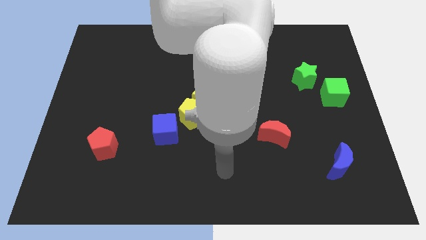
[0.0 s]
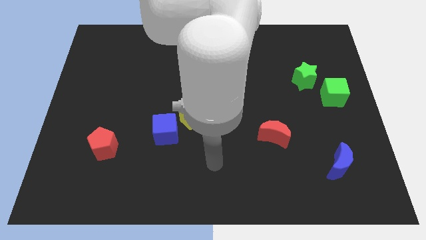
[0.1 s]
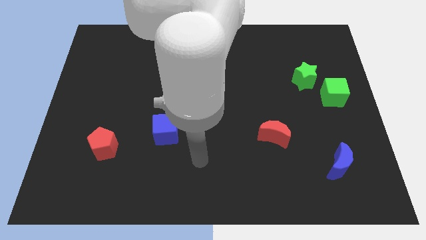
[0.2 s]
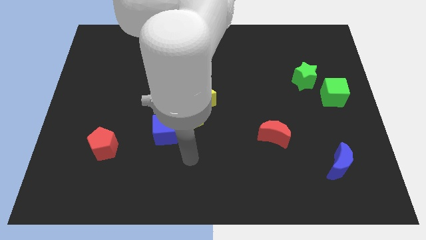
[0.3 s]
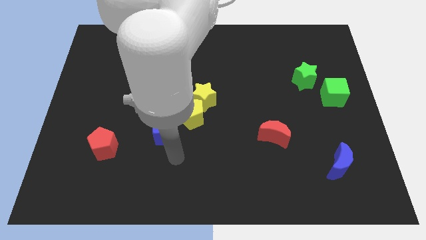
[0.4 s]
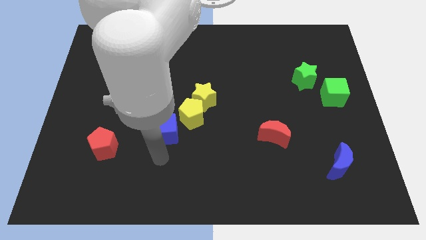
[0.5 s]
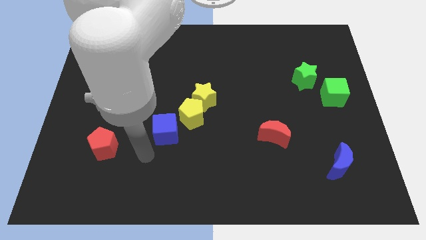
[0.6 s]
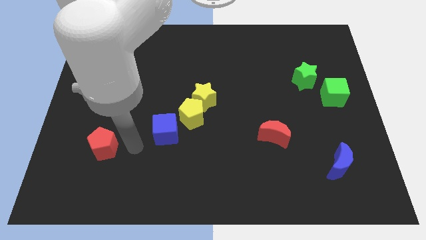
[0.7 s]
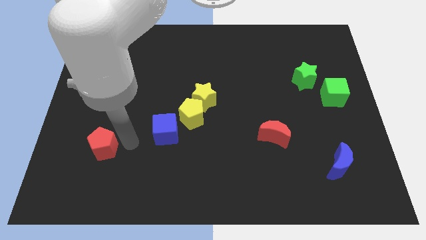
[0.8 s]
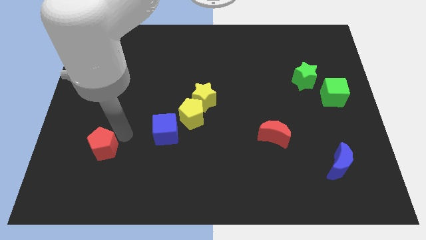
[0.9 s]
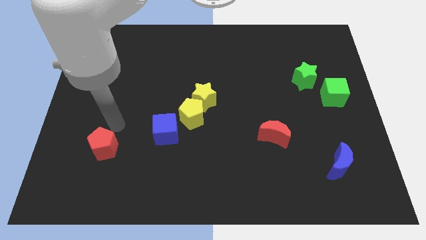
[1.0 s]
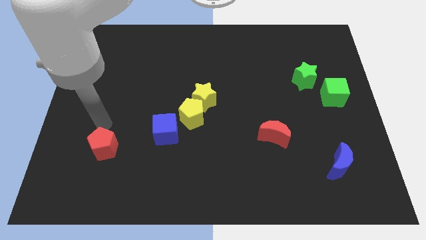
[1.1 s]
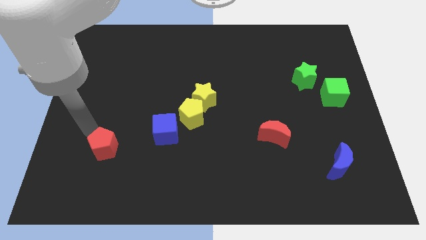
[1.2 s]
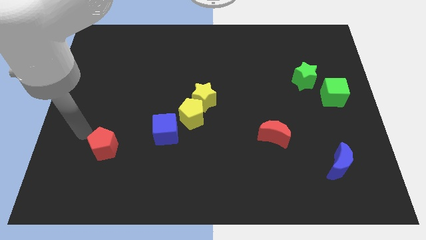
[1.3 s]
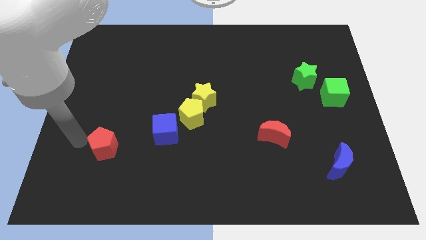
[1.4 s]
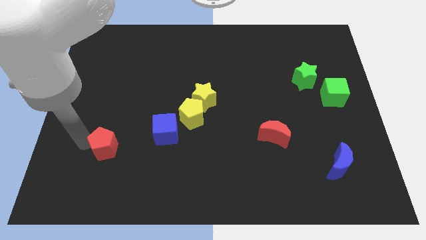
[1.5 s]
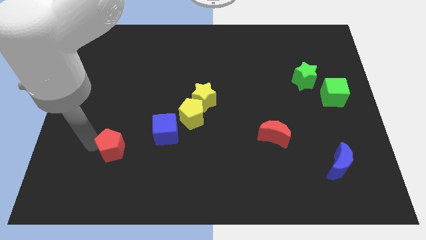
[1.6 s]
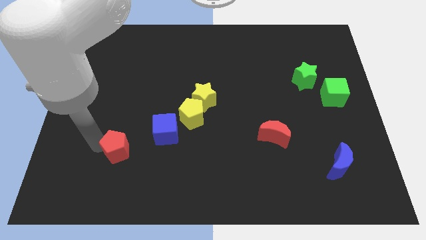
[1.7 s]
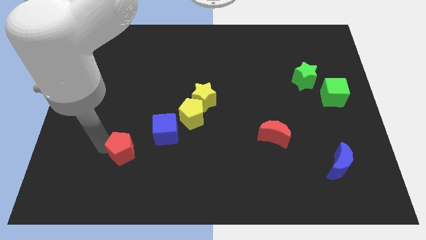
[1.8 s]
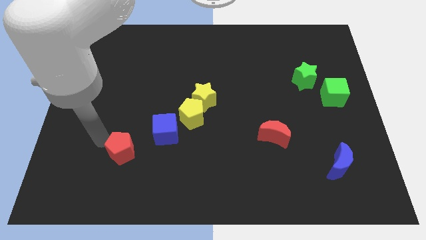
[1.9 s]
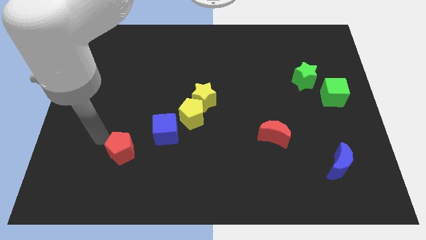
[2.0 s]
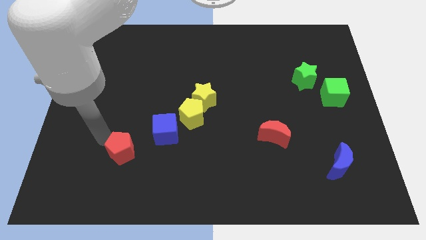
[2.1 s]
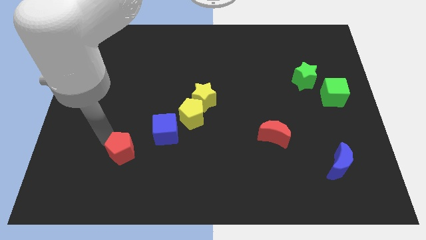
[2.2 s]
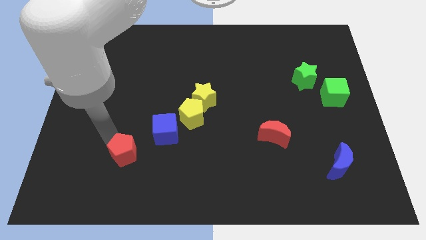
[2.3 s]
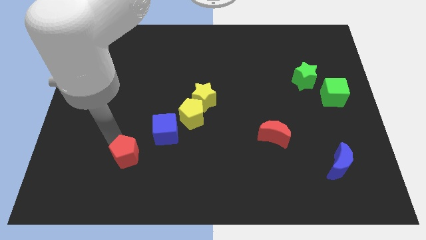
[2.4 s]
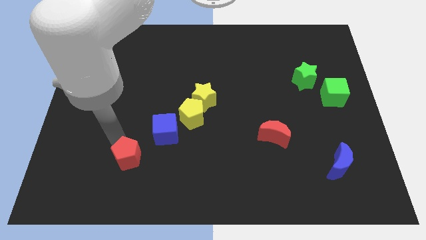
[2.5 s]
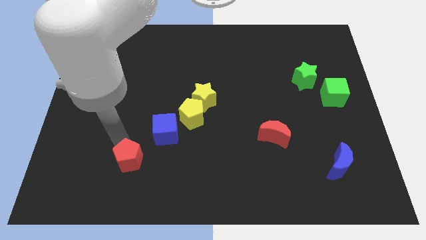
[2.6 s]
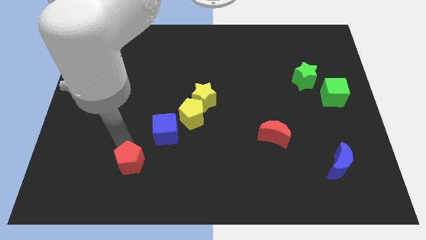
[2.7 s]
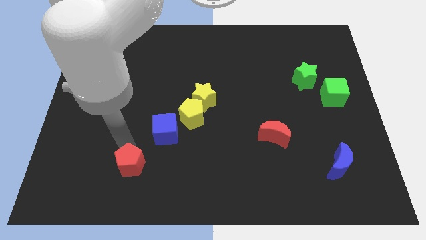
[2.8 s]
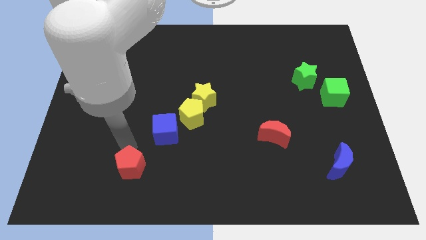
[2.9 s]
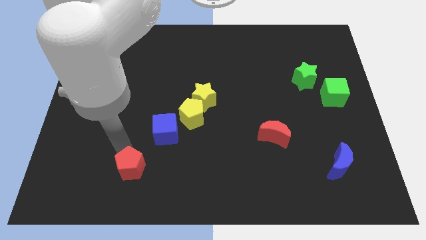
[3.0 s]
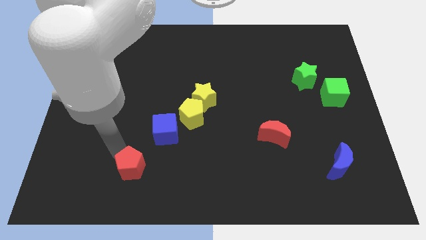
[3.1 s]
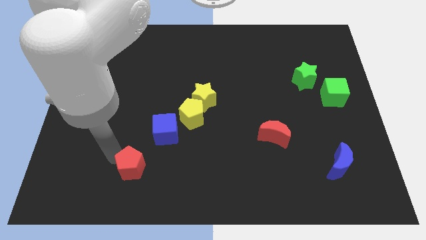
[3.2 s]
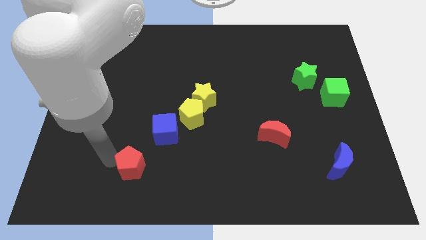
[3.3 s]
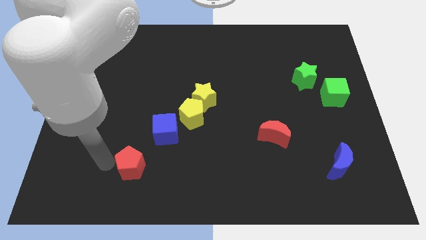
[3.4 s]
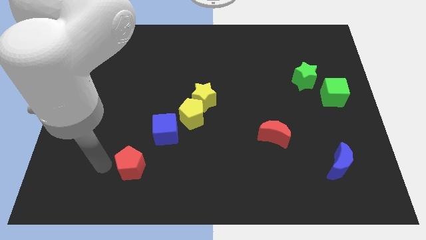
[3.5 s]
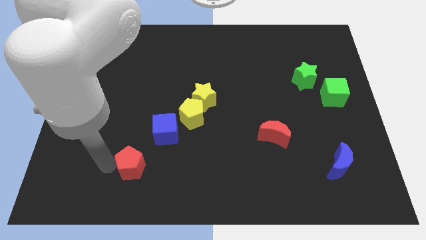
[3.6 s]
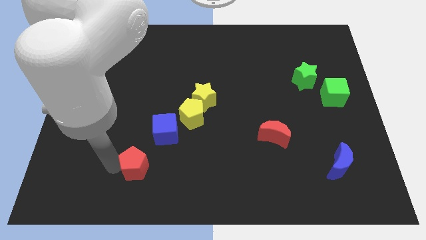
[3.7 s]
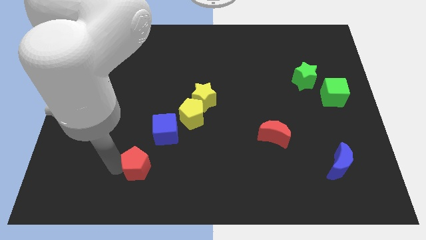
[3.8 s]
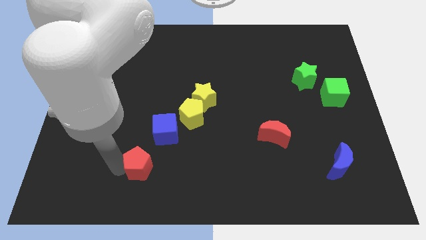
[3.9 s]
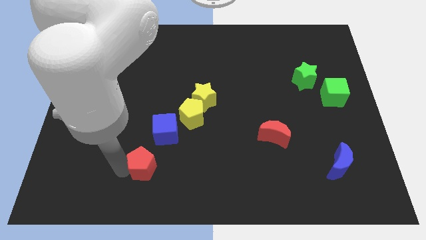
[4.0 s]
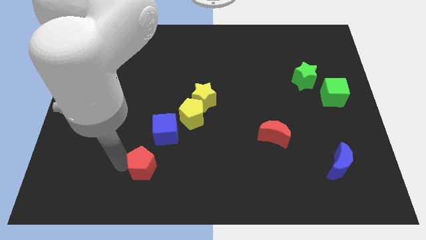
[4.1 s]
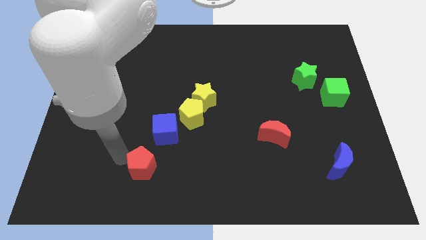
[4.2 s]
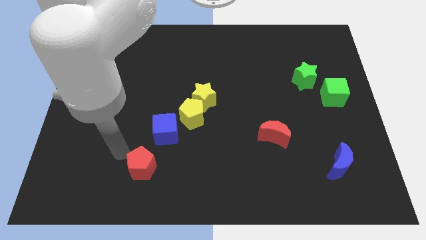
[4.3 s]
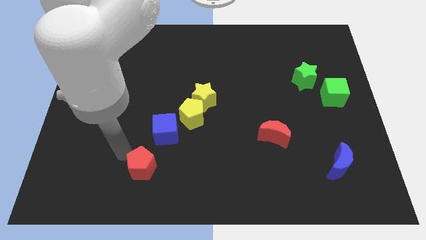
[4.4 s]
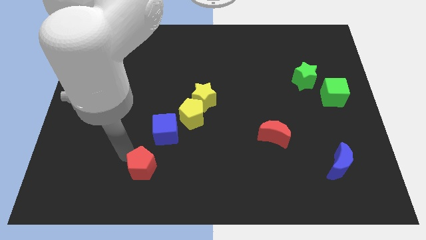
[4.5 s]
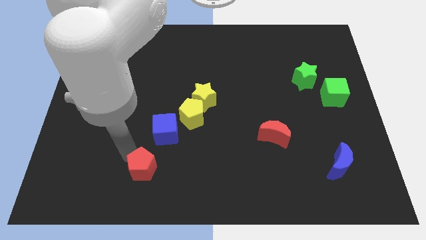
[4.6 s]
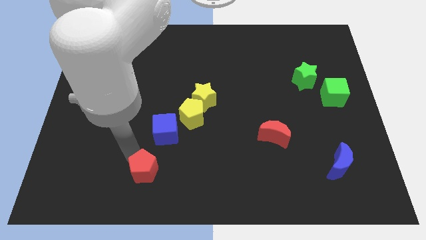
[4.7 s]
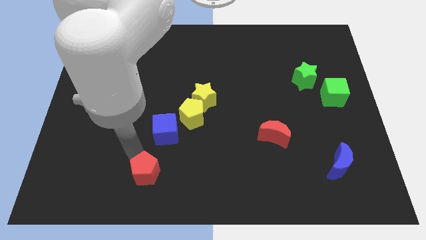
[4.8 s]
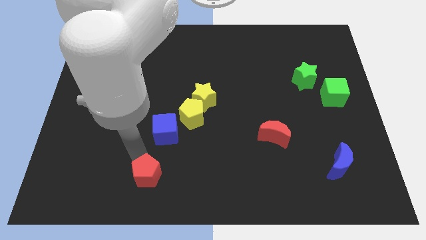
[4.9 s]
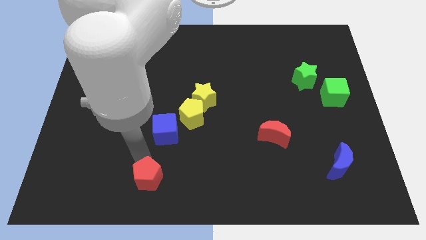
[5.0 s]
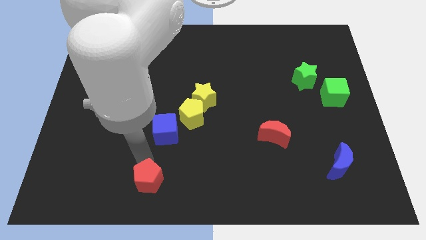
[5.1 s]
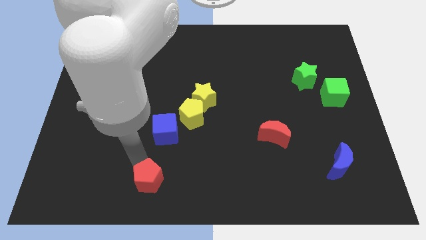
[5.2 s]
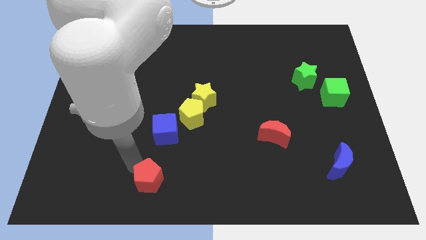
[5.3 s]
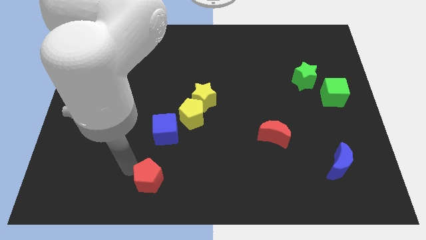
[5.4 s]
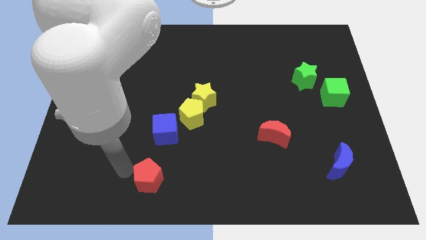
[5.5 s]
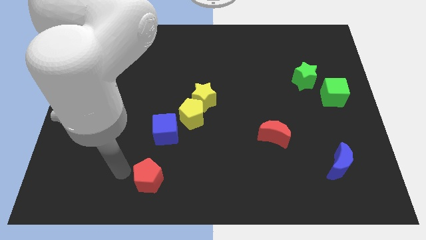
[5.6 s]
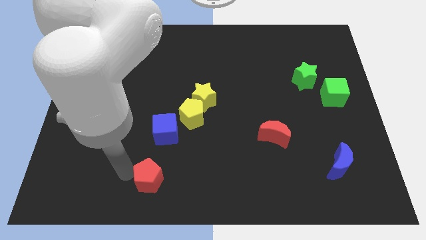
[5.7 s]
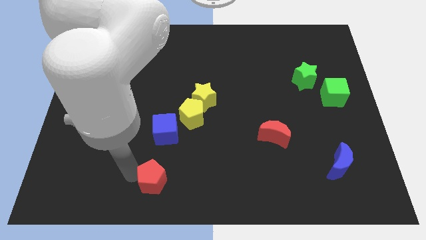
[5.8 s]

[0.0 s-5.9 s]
put the red pentagon to the bottom side

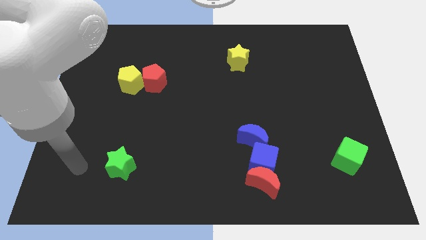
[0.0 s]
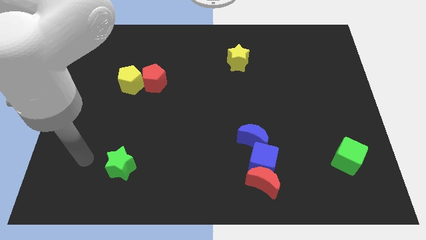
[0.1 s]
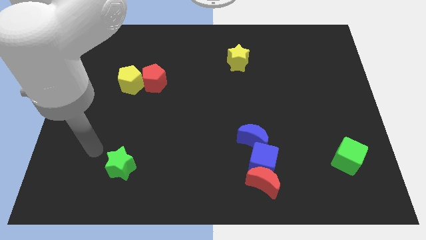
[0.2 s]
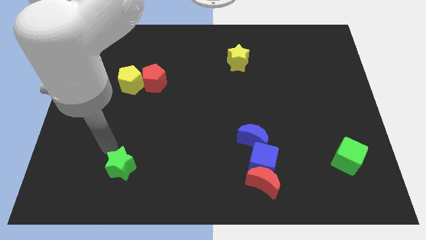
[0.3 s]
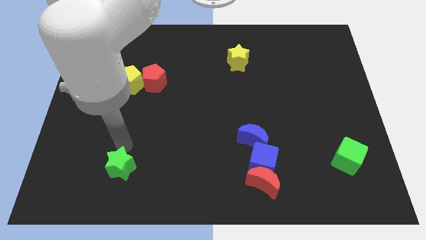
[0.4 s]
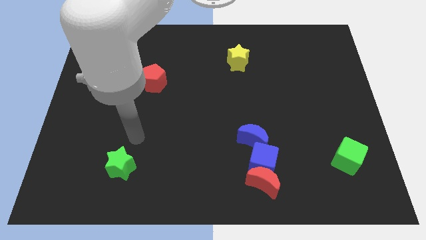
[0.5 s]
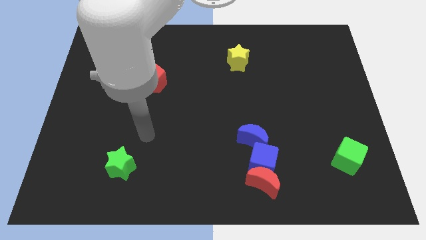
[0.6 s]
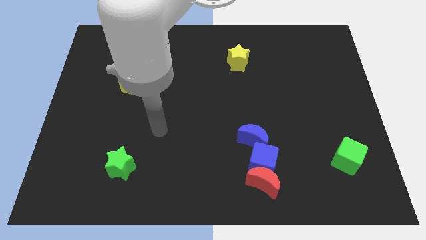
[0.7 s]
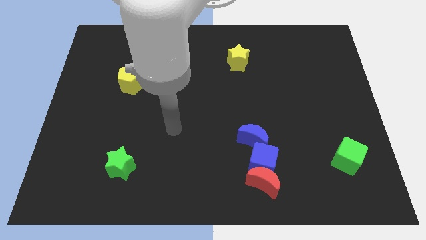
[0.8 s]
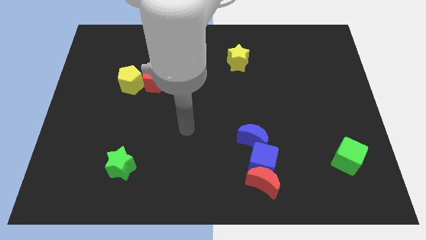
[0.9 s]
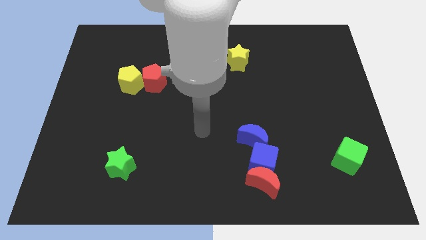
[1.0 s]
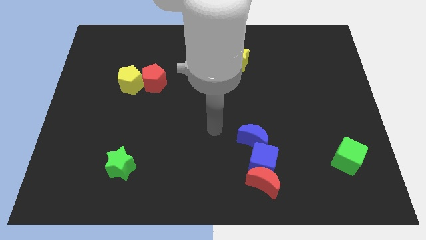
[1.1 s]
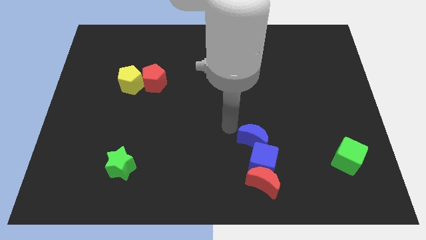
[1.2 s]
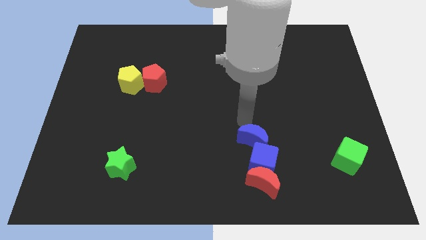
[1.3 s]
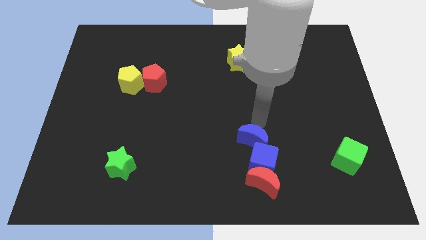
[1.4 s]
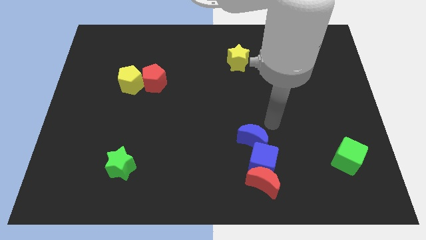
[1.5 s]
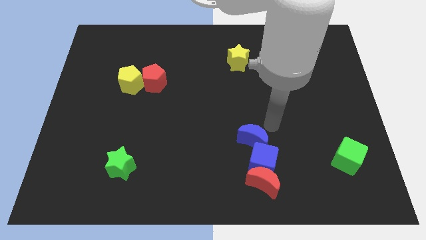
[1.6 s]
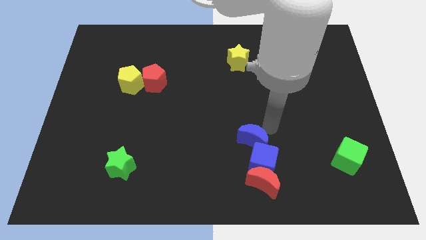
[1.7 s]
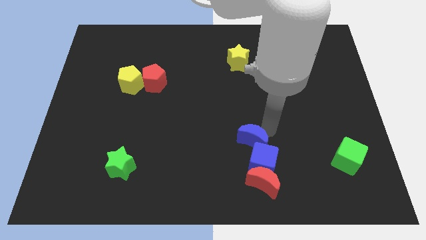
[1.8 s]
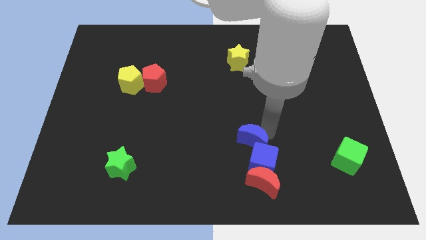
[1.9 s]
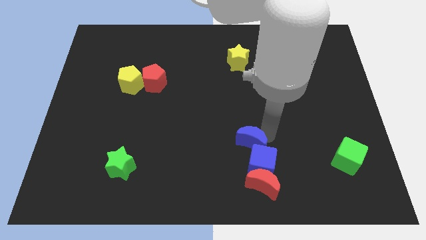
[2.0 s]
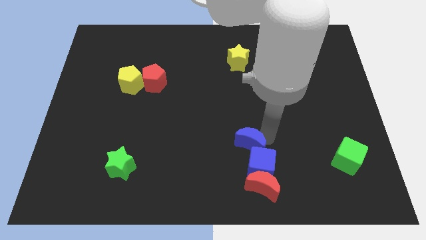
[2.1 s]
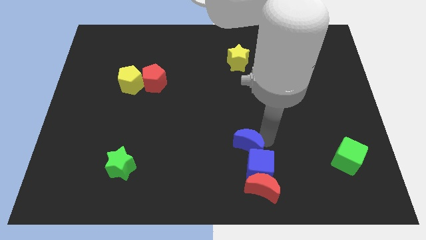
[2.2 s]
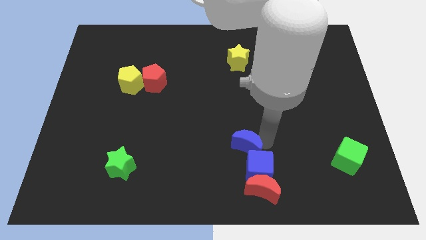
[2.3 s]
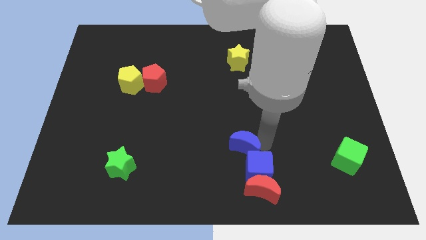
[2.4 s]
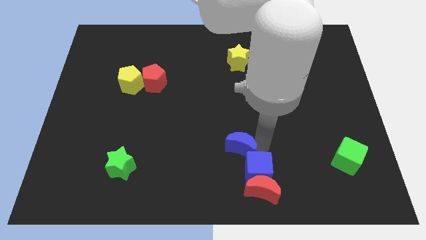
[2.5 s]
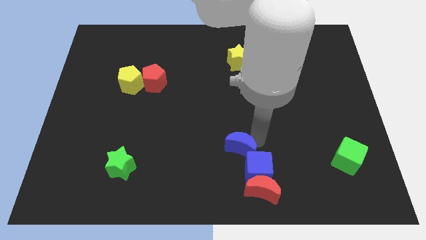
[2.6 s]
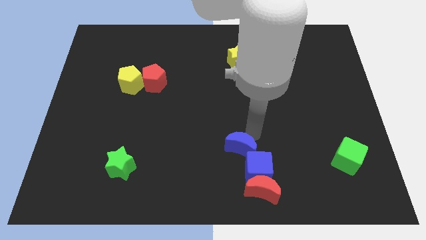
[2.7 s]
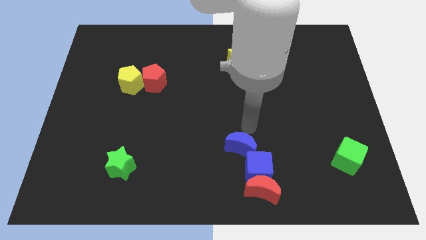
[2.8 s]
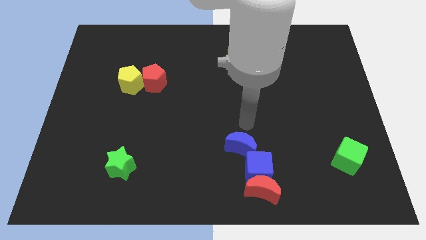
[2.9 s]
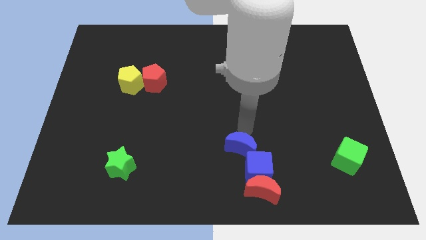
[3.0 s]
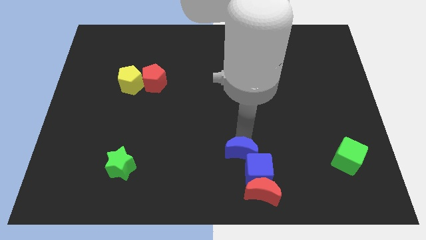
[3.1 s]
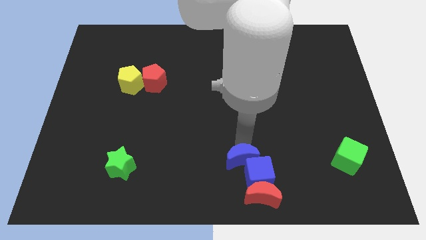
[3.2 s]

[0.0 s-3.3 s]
slide the blue moon to the bottom side
